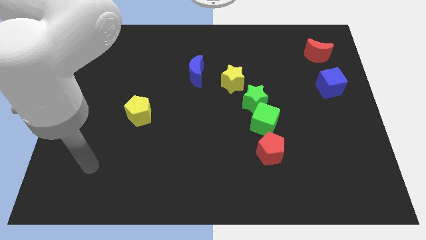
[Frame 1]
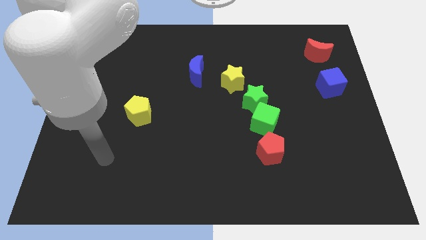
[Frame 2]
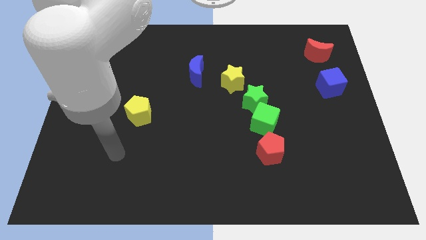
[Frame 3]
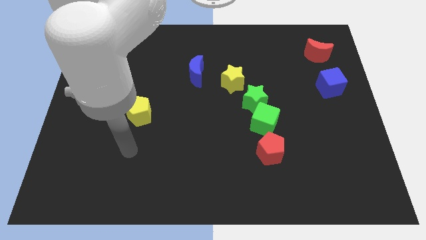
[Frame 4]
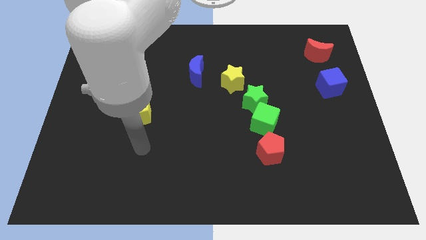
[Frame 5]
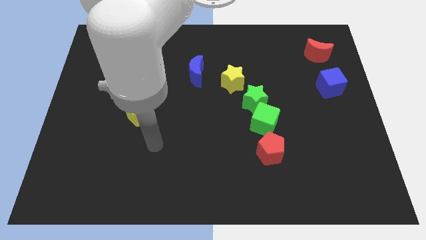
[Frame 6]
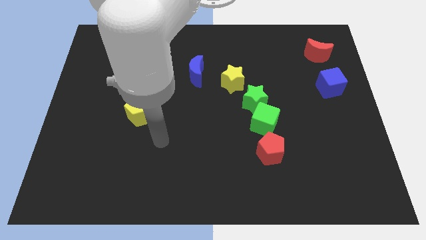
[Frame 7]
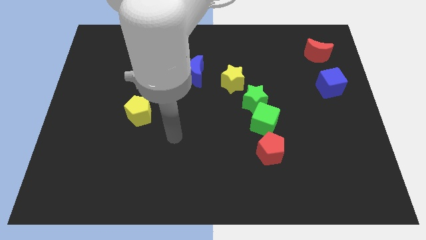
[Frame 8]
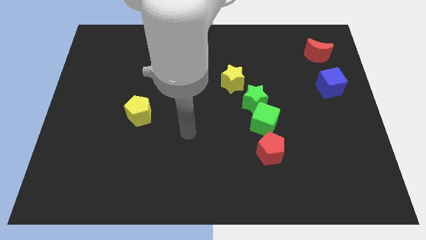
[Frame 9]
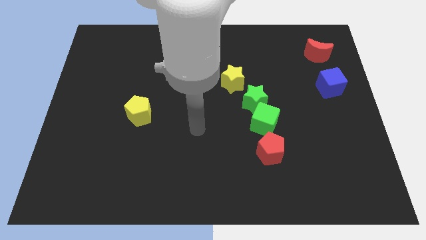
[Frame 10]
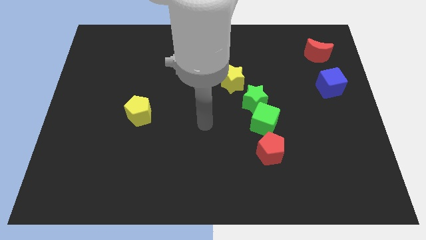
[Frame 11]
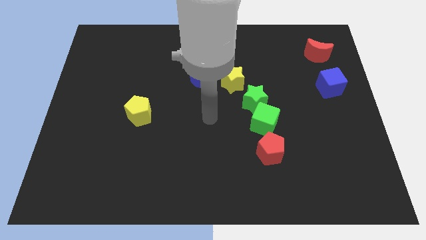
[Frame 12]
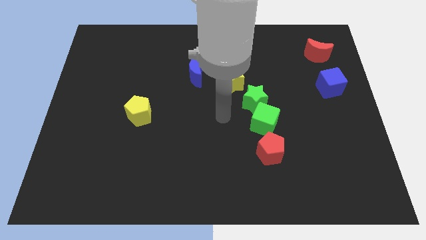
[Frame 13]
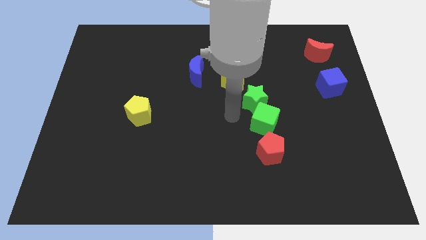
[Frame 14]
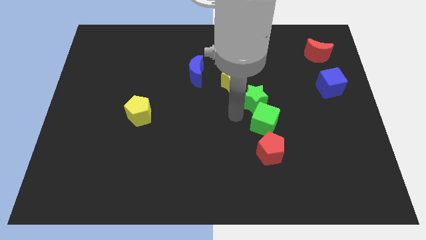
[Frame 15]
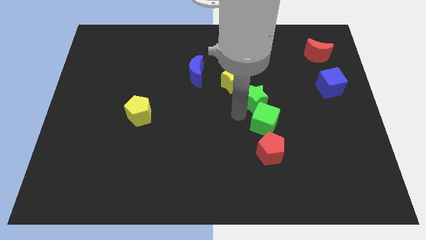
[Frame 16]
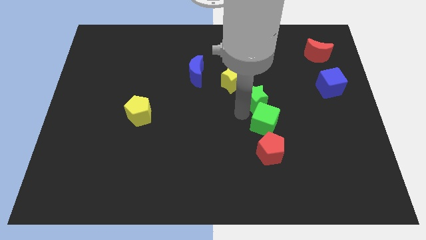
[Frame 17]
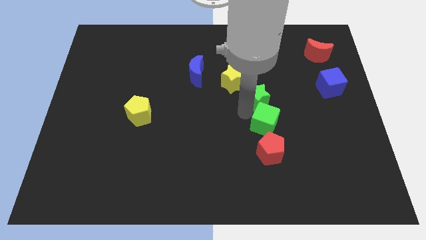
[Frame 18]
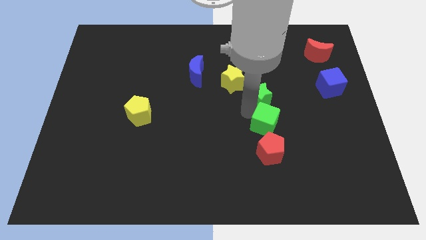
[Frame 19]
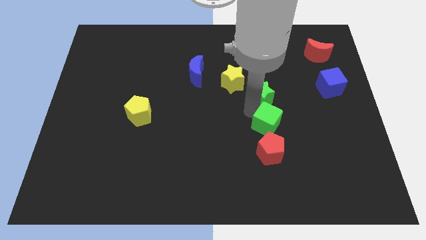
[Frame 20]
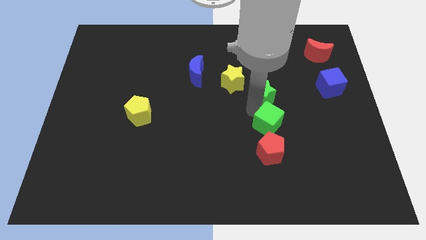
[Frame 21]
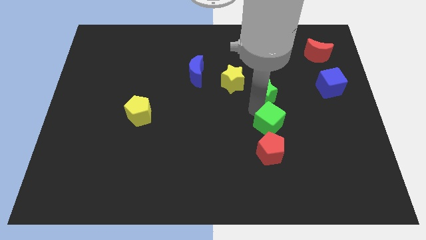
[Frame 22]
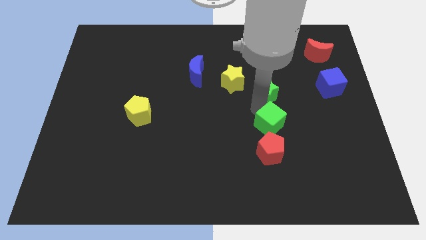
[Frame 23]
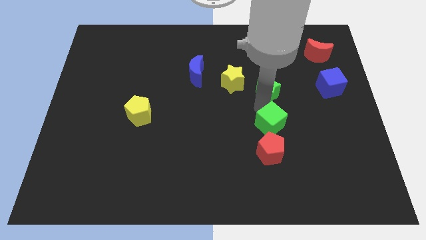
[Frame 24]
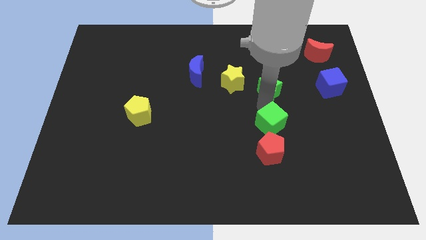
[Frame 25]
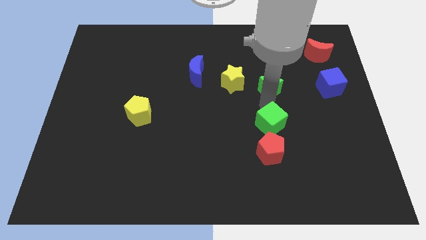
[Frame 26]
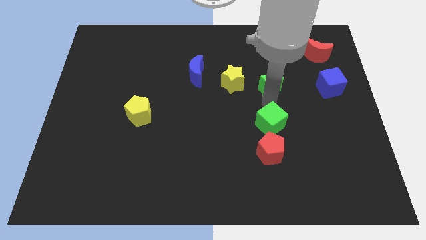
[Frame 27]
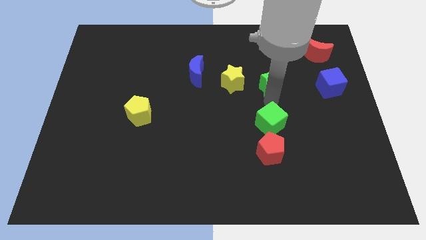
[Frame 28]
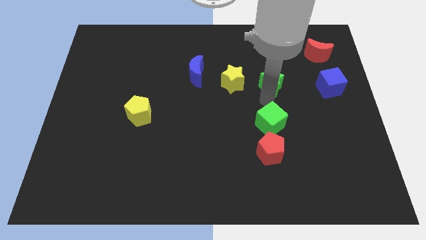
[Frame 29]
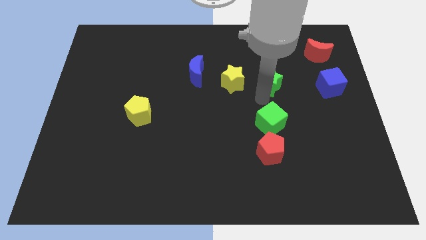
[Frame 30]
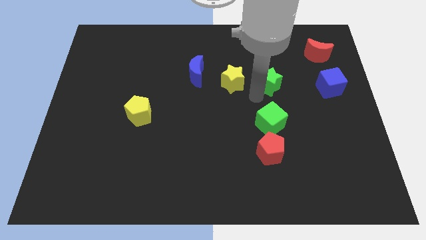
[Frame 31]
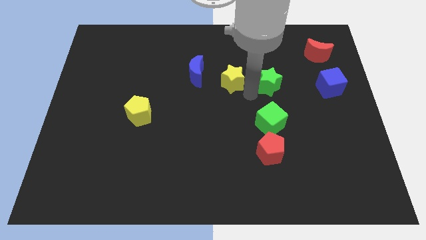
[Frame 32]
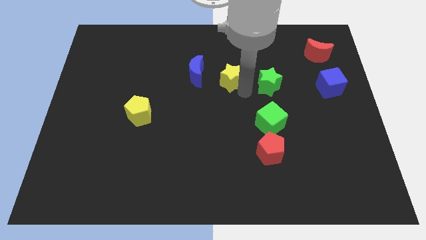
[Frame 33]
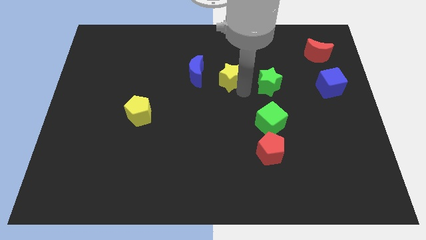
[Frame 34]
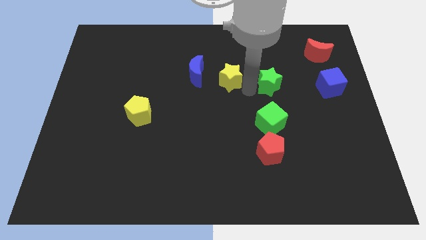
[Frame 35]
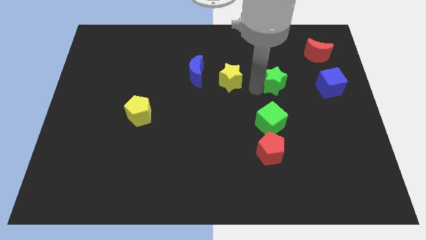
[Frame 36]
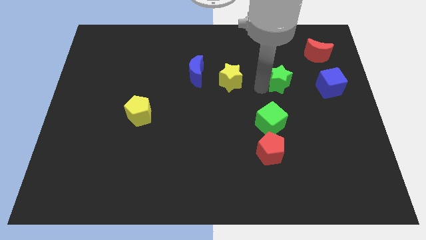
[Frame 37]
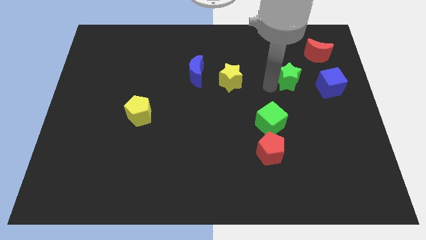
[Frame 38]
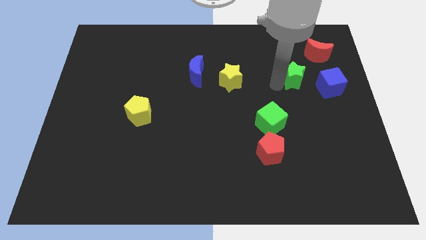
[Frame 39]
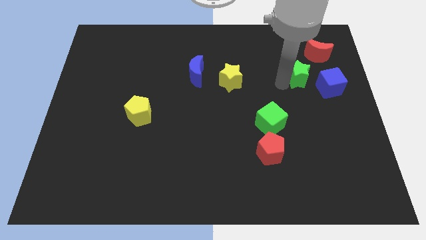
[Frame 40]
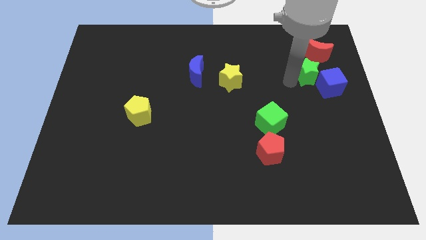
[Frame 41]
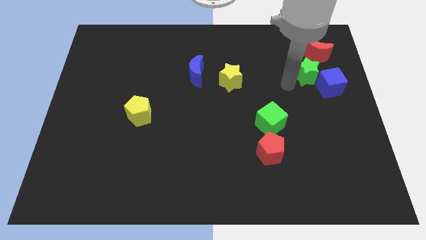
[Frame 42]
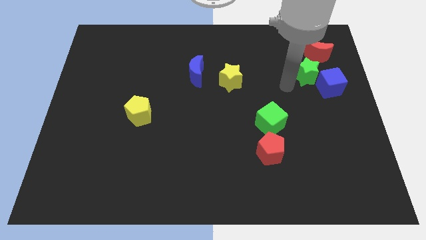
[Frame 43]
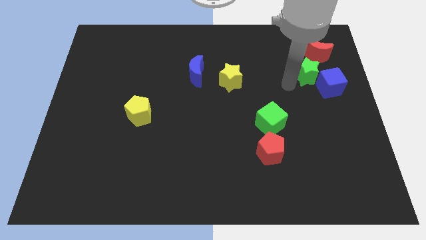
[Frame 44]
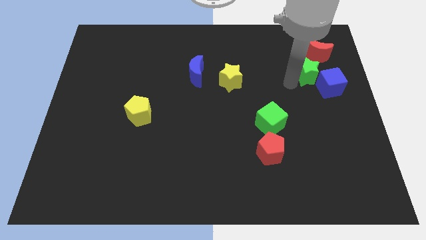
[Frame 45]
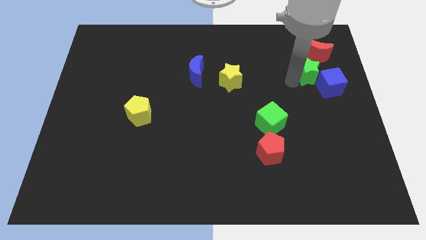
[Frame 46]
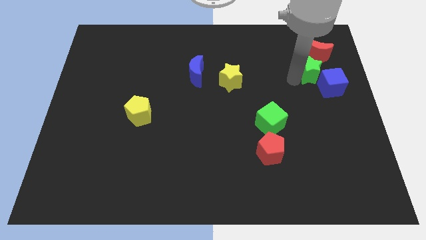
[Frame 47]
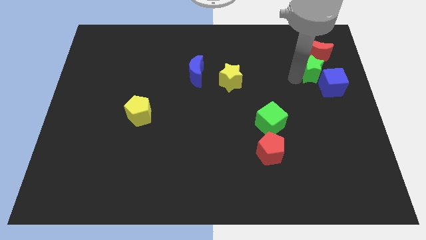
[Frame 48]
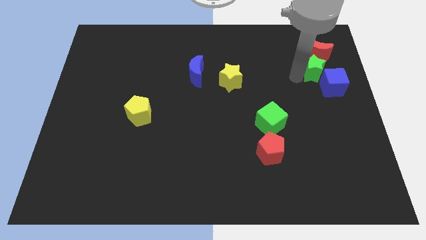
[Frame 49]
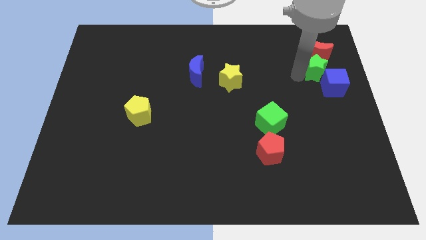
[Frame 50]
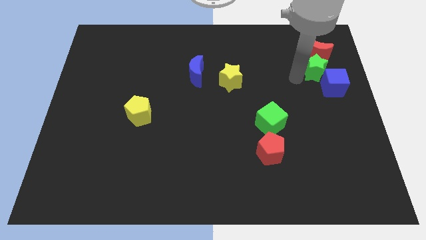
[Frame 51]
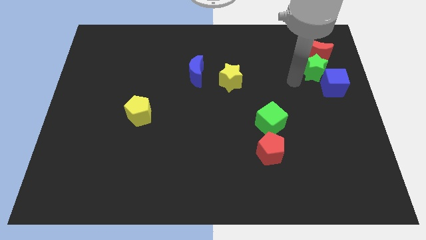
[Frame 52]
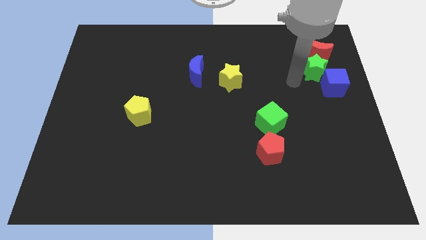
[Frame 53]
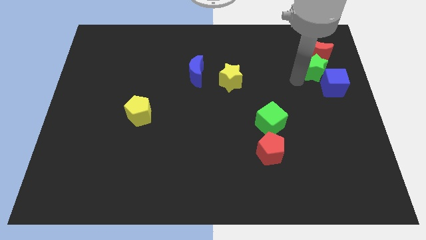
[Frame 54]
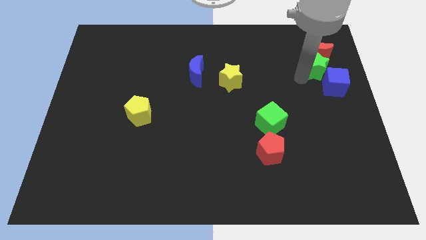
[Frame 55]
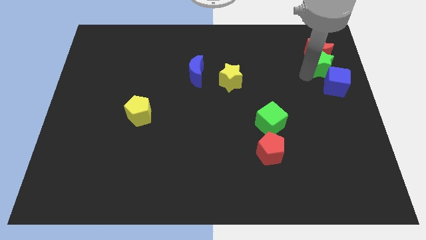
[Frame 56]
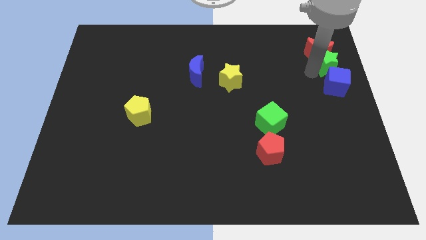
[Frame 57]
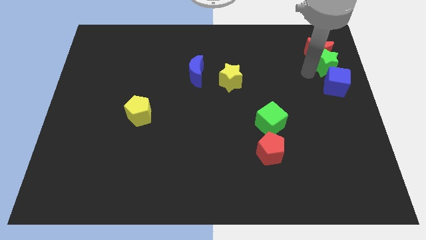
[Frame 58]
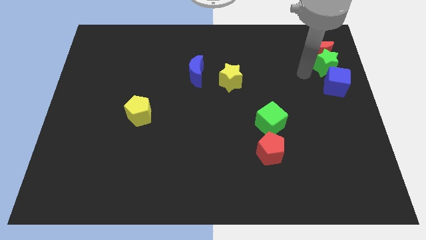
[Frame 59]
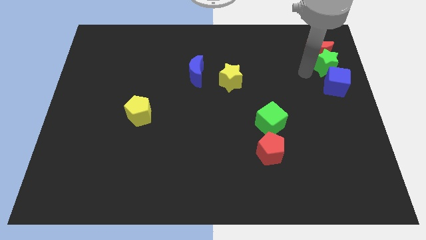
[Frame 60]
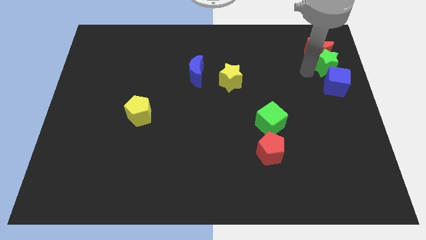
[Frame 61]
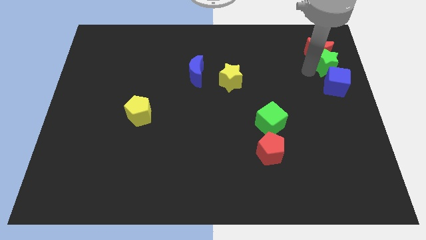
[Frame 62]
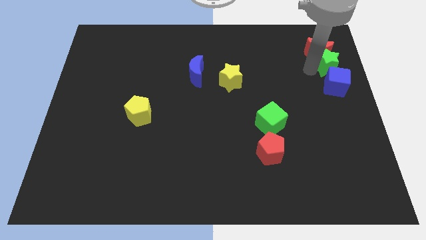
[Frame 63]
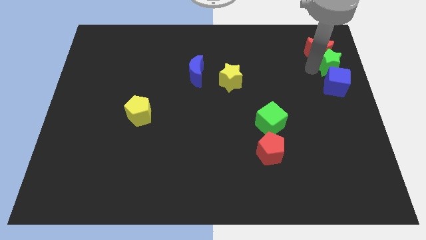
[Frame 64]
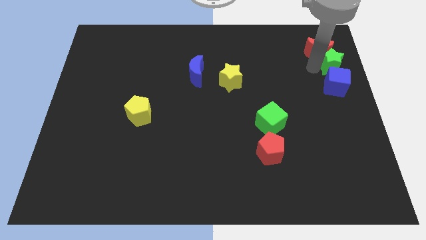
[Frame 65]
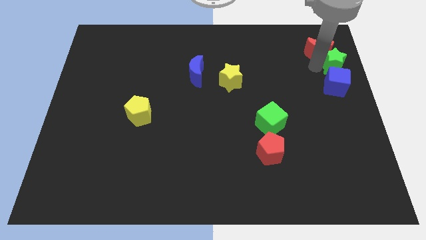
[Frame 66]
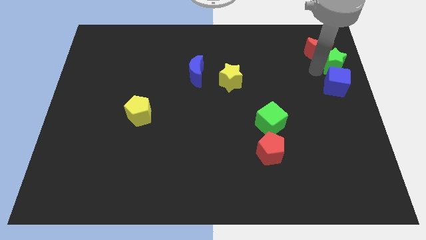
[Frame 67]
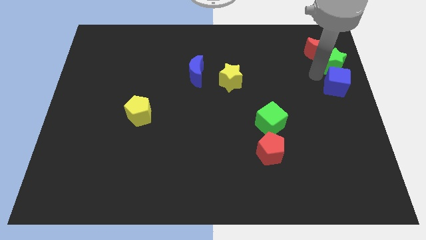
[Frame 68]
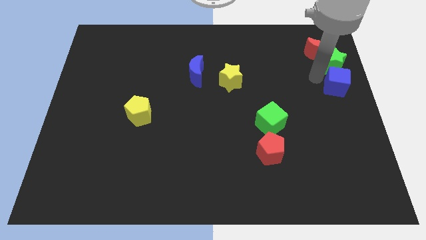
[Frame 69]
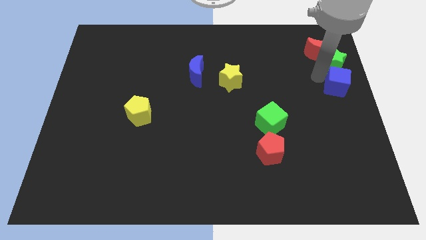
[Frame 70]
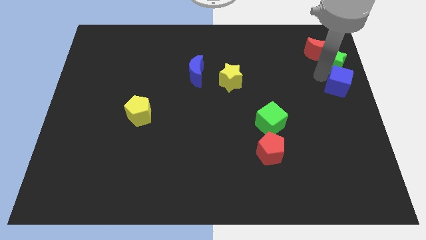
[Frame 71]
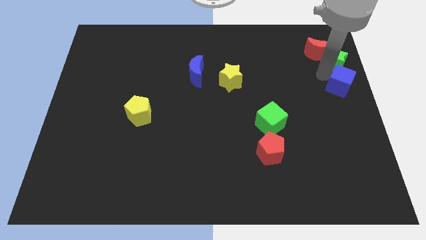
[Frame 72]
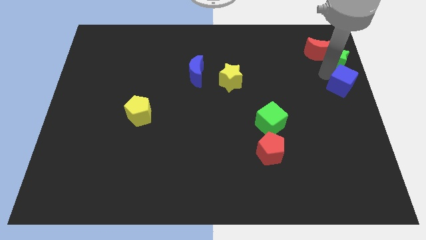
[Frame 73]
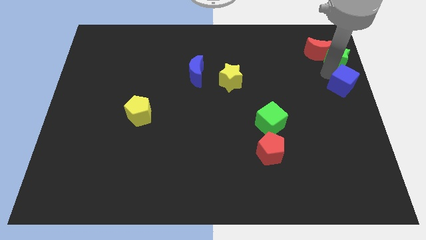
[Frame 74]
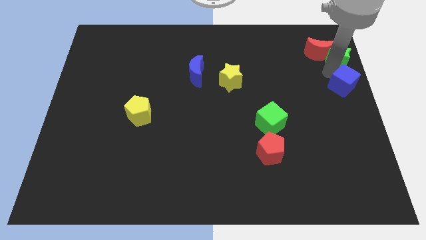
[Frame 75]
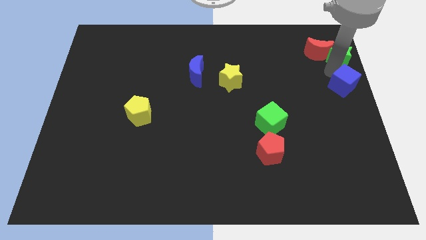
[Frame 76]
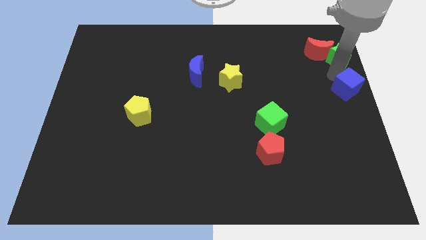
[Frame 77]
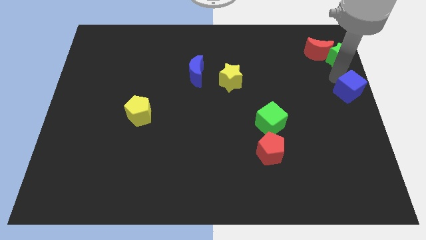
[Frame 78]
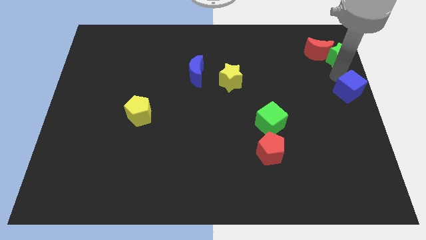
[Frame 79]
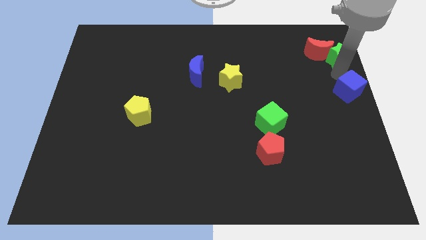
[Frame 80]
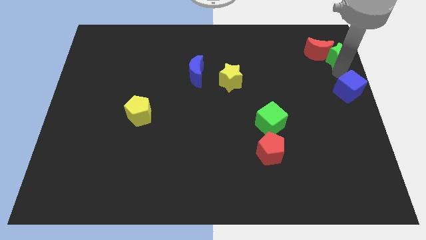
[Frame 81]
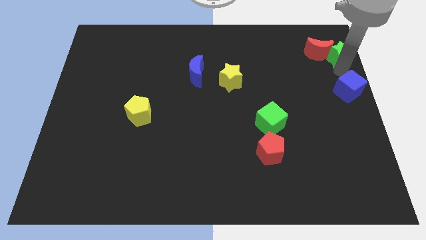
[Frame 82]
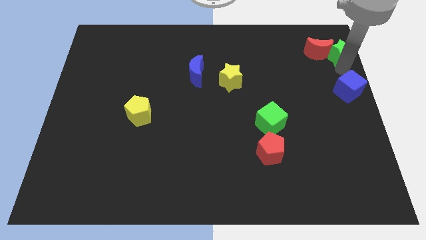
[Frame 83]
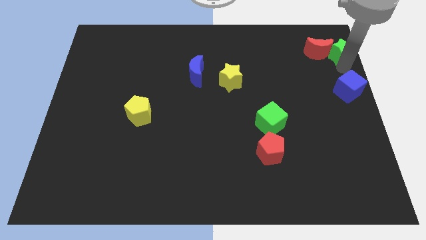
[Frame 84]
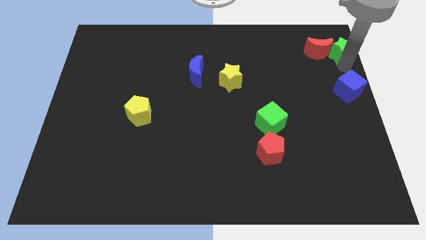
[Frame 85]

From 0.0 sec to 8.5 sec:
push the green star to the top right of the board
